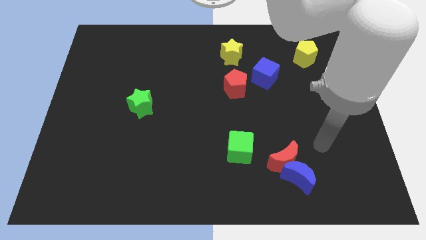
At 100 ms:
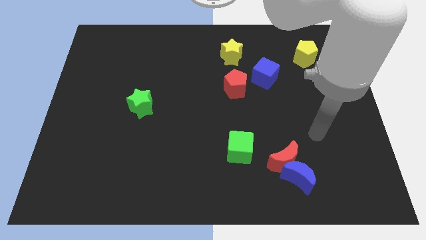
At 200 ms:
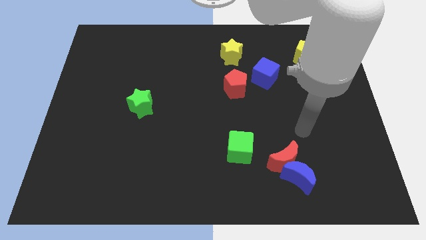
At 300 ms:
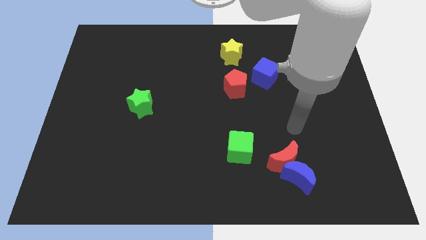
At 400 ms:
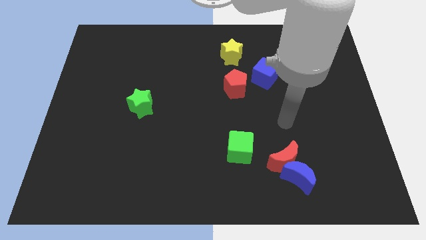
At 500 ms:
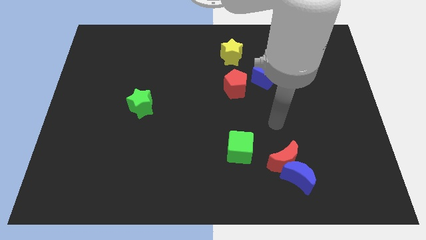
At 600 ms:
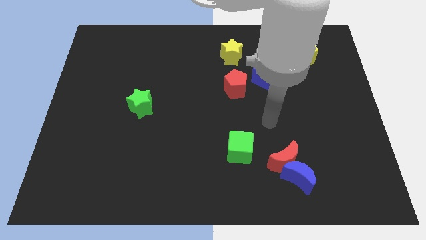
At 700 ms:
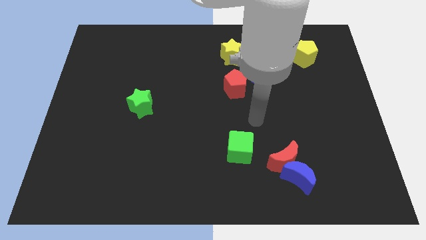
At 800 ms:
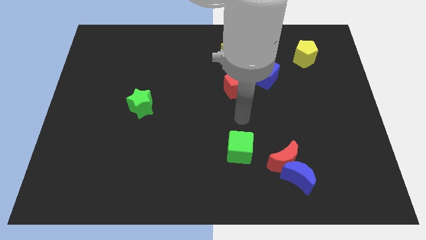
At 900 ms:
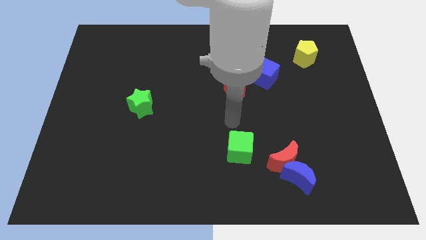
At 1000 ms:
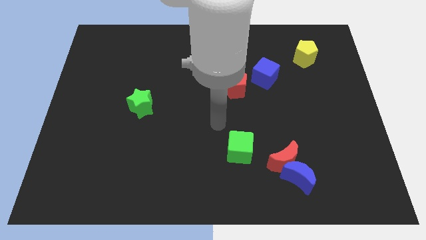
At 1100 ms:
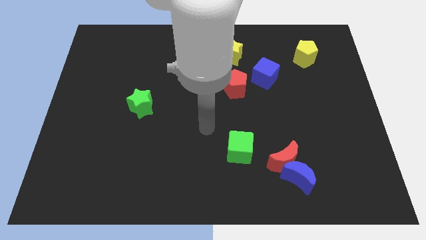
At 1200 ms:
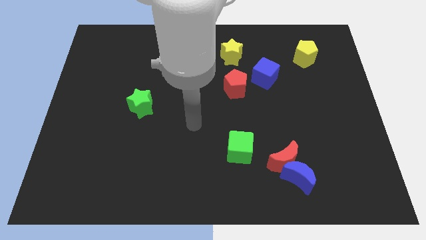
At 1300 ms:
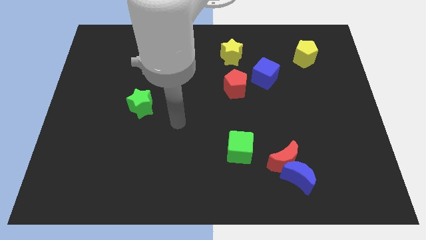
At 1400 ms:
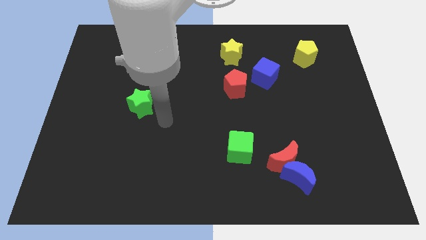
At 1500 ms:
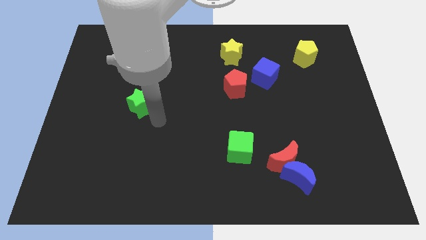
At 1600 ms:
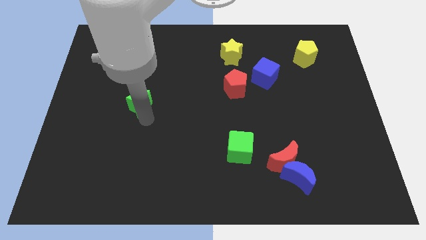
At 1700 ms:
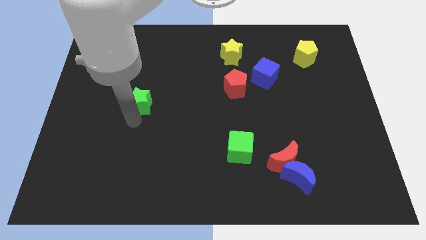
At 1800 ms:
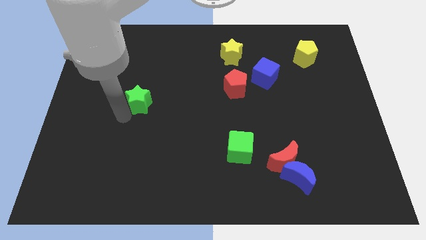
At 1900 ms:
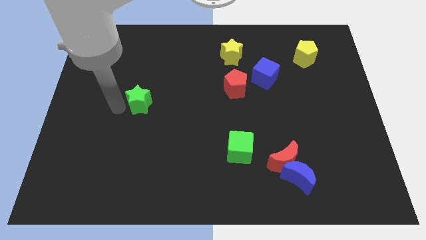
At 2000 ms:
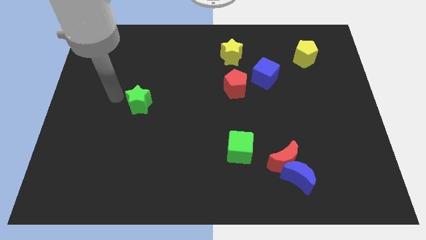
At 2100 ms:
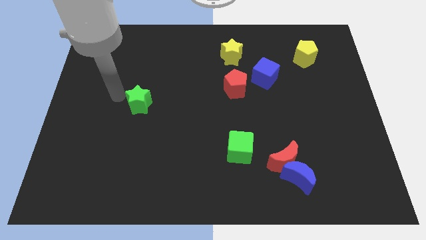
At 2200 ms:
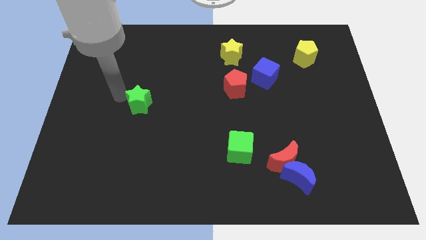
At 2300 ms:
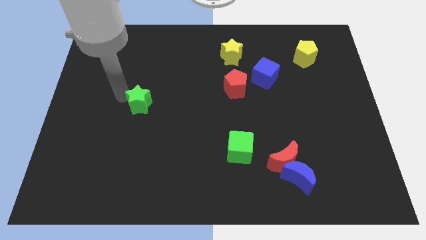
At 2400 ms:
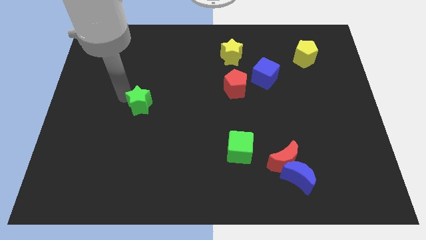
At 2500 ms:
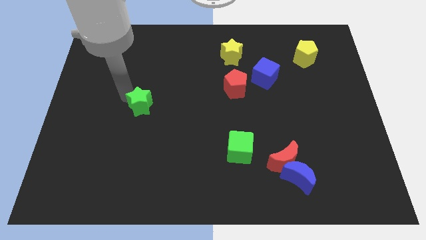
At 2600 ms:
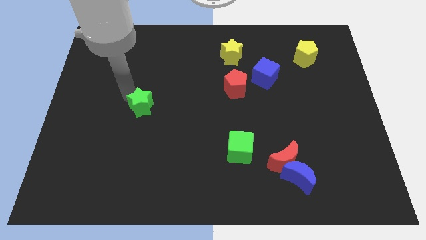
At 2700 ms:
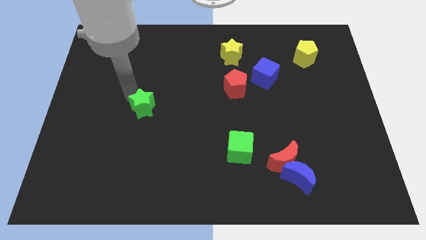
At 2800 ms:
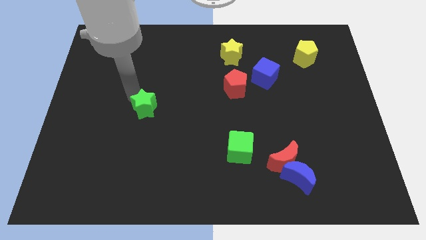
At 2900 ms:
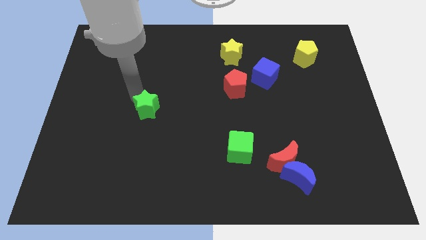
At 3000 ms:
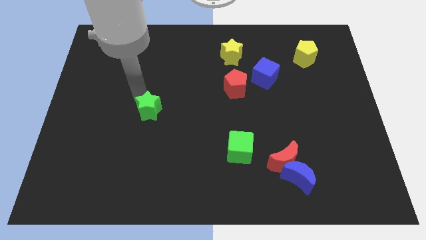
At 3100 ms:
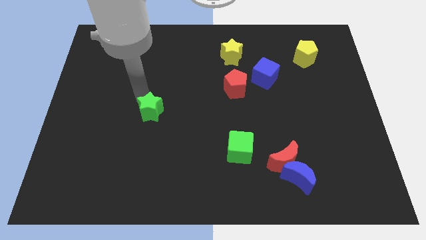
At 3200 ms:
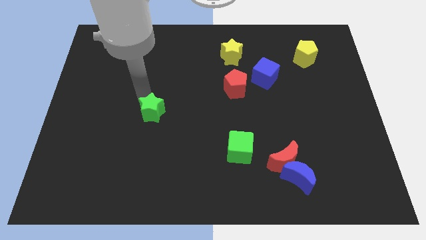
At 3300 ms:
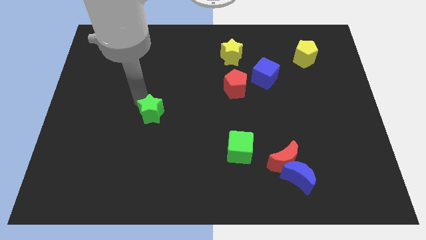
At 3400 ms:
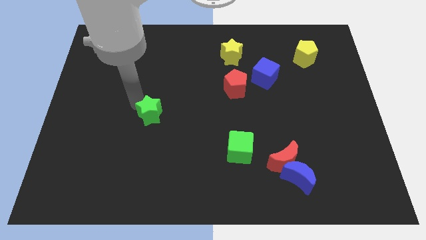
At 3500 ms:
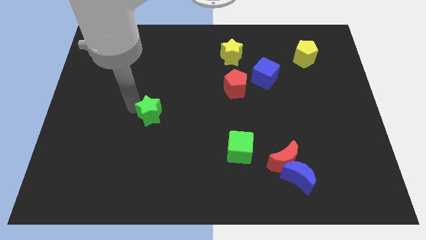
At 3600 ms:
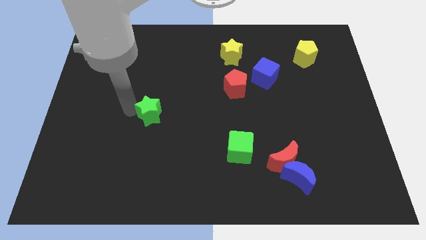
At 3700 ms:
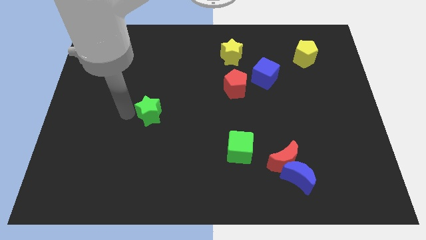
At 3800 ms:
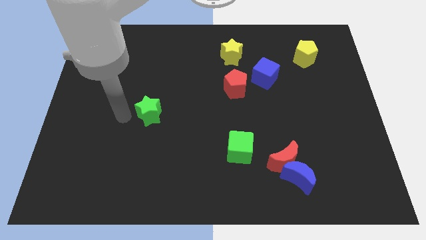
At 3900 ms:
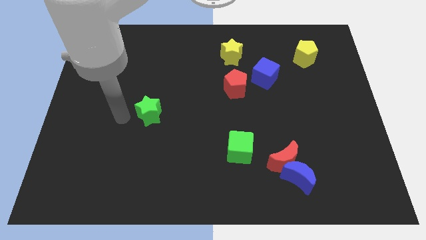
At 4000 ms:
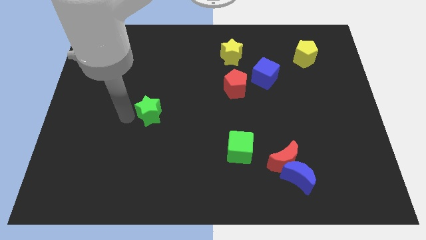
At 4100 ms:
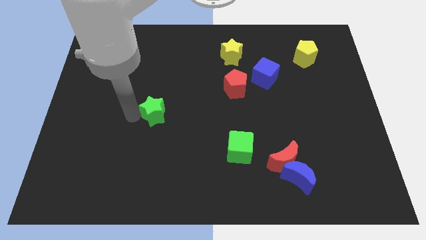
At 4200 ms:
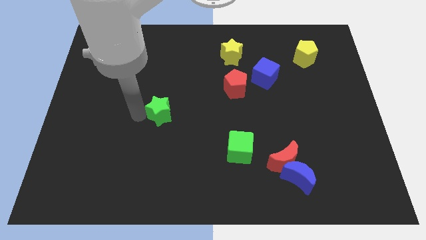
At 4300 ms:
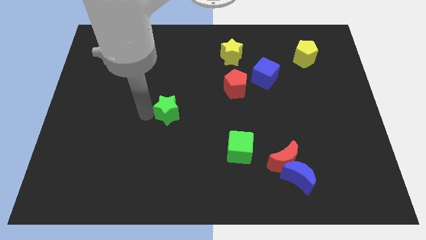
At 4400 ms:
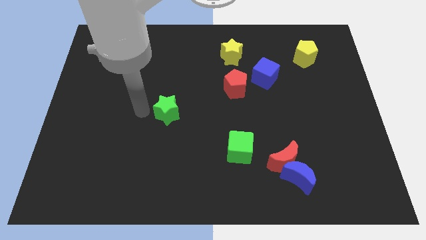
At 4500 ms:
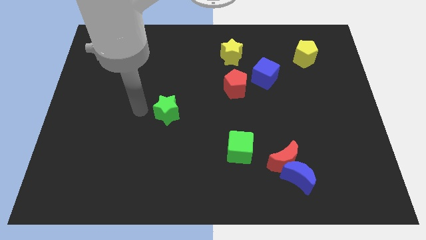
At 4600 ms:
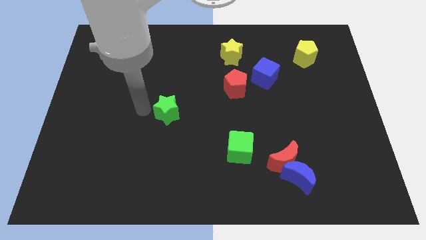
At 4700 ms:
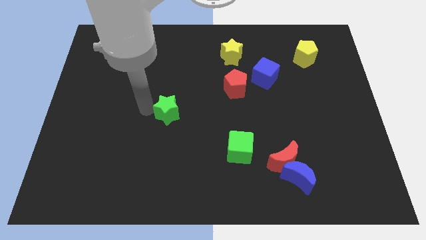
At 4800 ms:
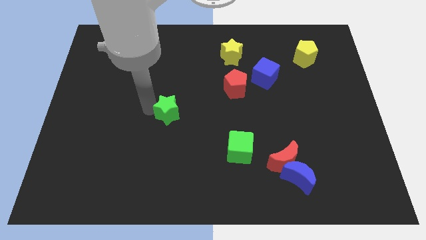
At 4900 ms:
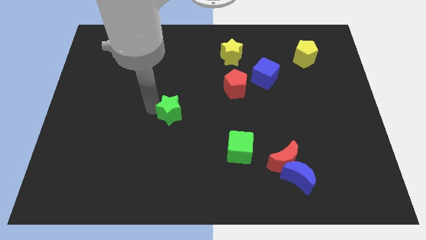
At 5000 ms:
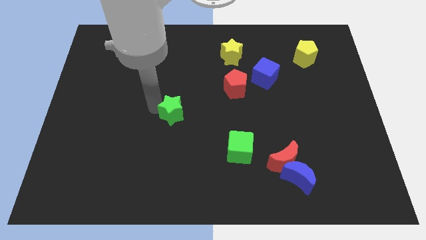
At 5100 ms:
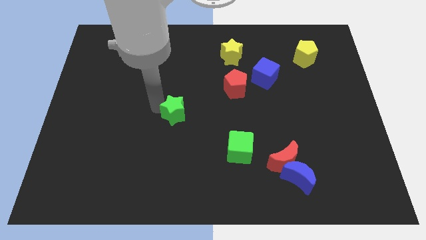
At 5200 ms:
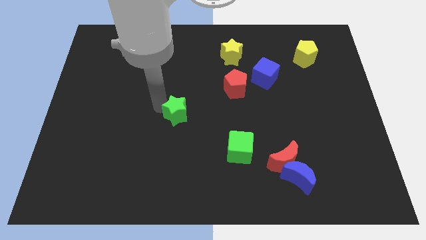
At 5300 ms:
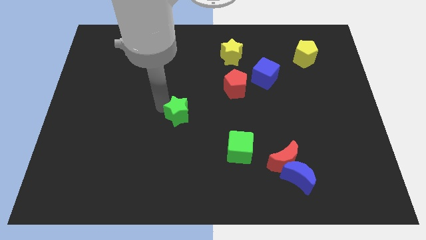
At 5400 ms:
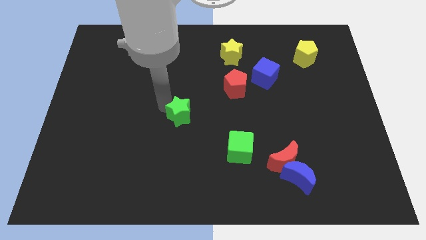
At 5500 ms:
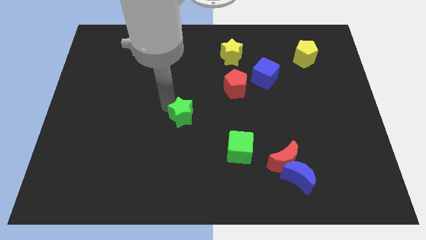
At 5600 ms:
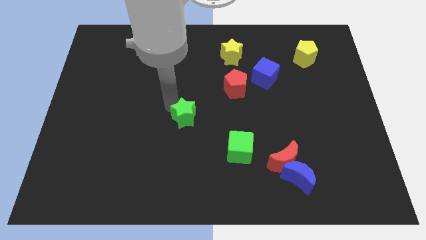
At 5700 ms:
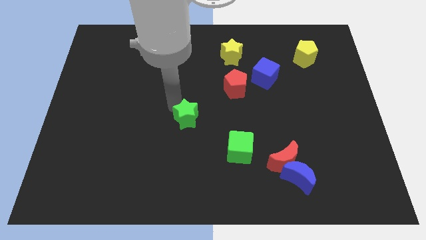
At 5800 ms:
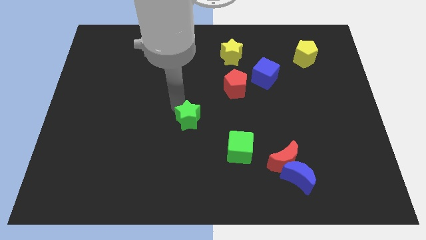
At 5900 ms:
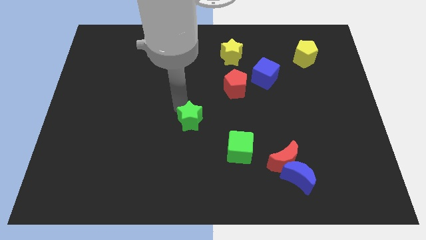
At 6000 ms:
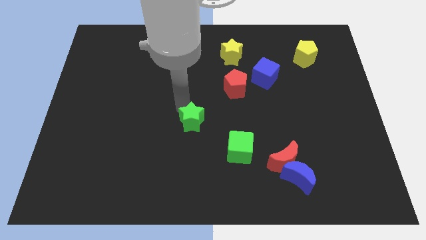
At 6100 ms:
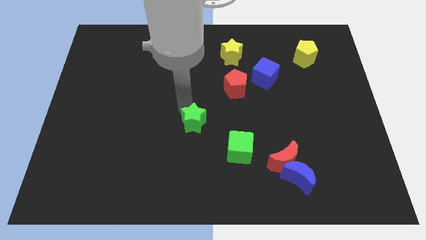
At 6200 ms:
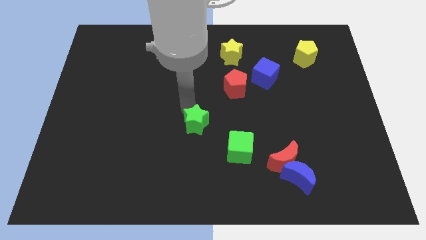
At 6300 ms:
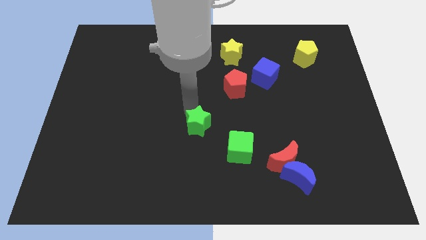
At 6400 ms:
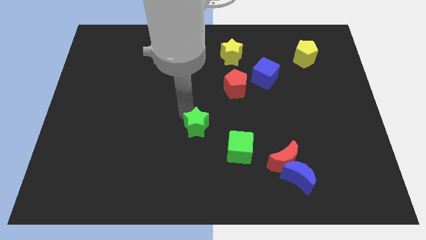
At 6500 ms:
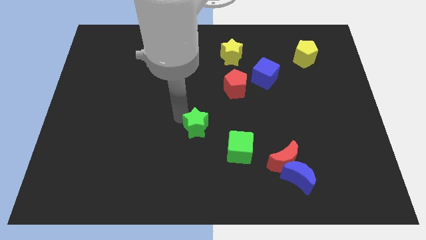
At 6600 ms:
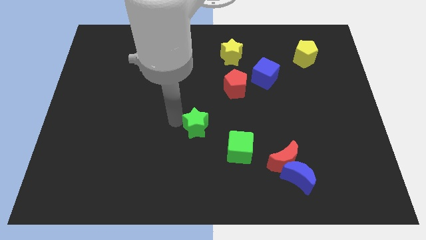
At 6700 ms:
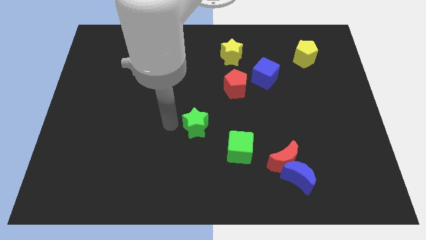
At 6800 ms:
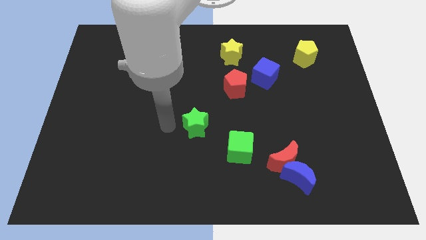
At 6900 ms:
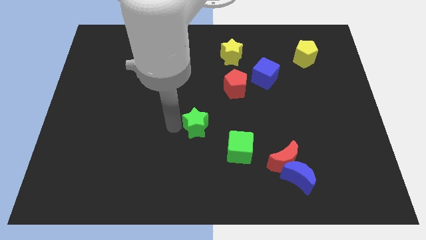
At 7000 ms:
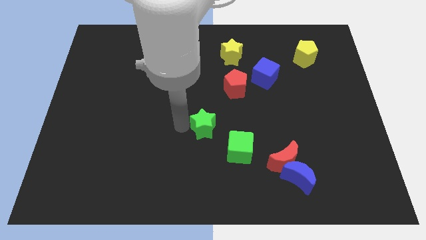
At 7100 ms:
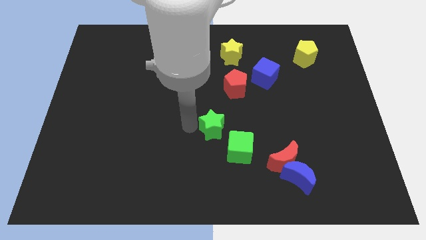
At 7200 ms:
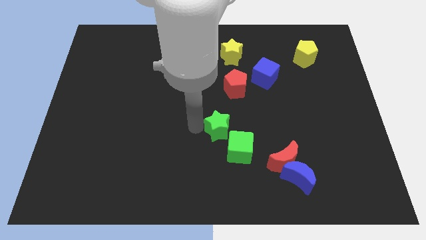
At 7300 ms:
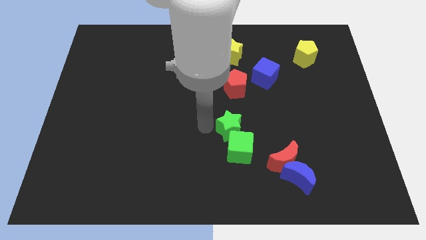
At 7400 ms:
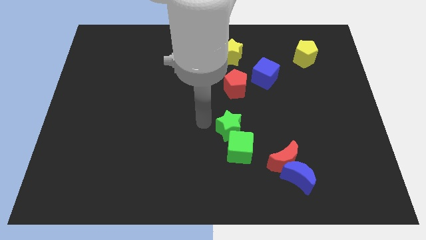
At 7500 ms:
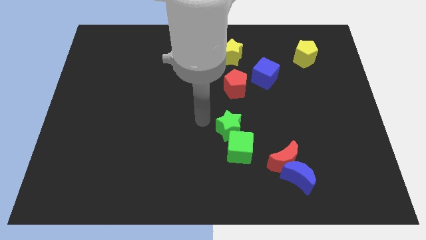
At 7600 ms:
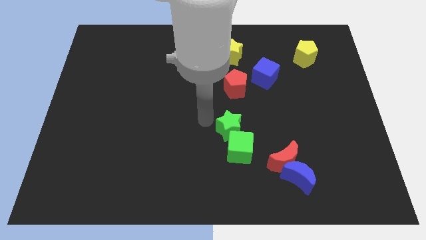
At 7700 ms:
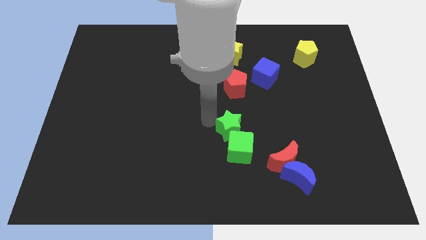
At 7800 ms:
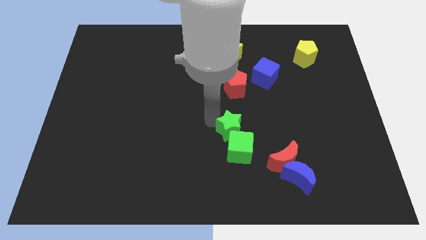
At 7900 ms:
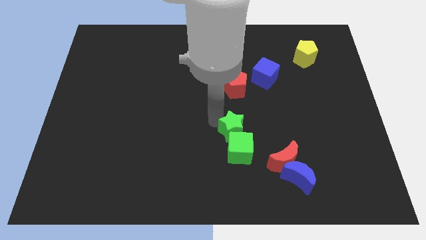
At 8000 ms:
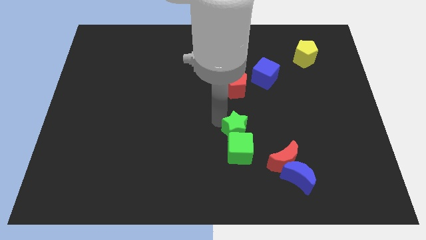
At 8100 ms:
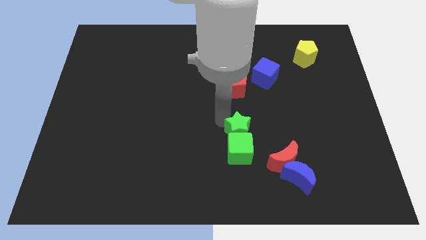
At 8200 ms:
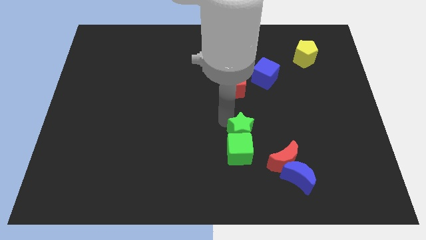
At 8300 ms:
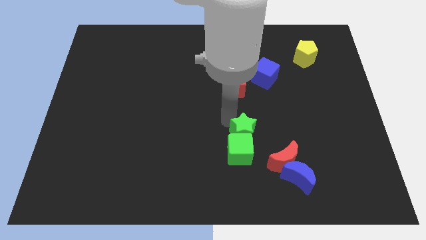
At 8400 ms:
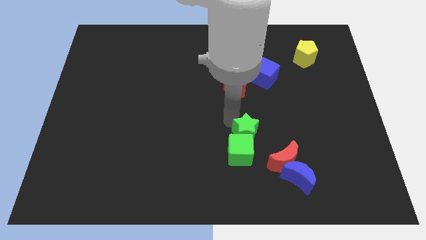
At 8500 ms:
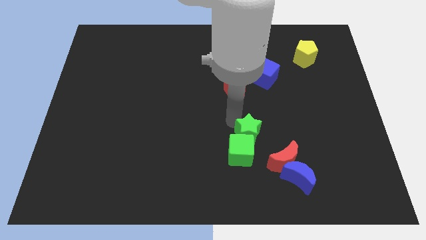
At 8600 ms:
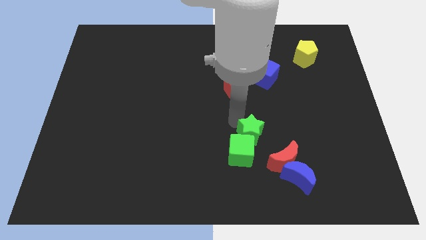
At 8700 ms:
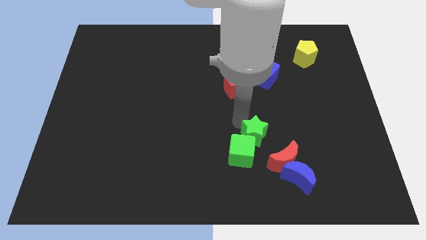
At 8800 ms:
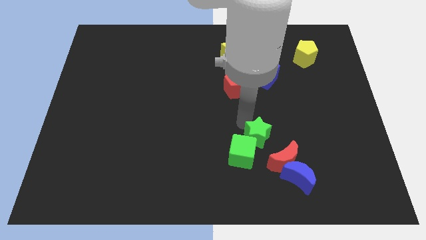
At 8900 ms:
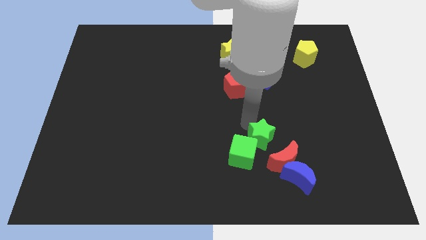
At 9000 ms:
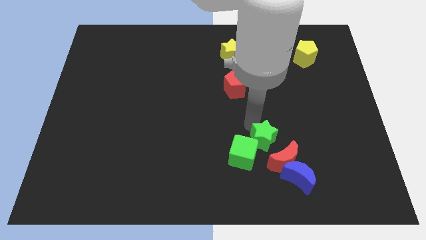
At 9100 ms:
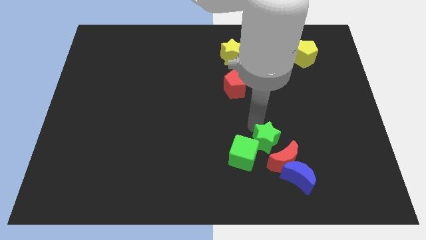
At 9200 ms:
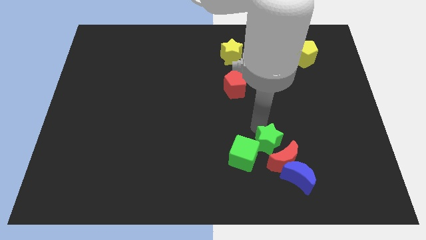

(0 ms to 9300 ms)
push the green star to the red moon
